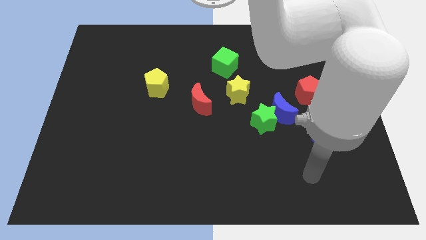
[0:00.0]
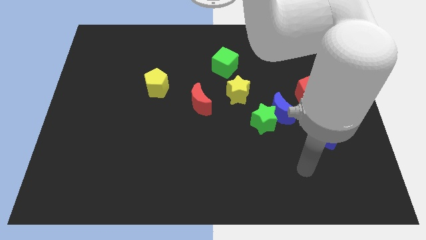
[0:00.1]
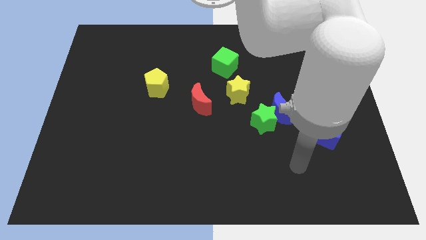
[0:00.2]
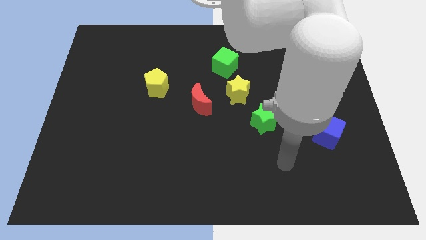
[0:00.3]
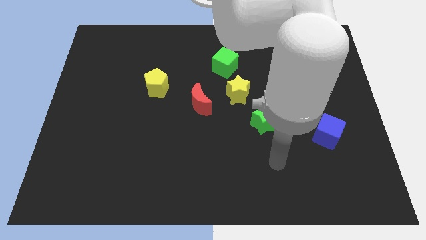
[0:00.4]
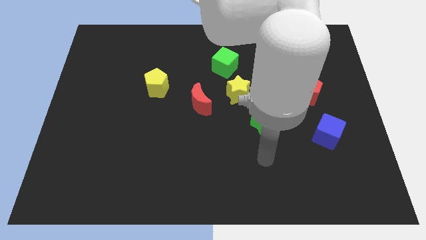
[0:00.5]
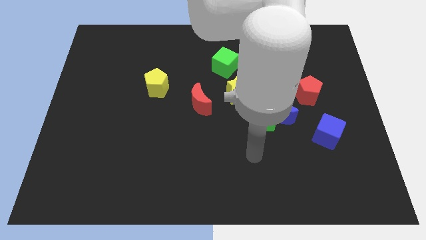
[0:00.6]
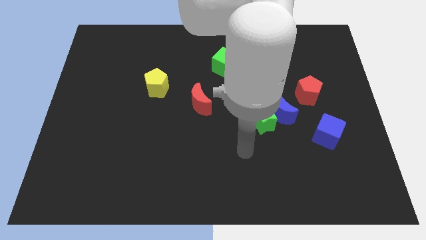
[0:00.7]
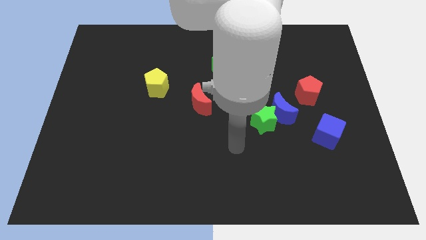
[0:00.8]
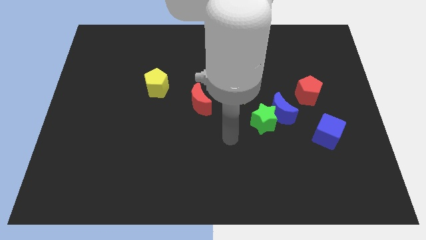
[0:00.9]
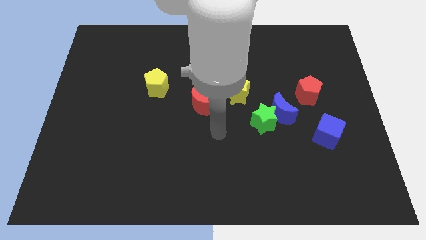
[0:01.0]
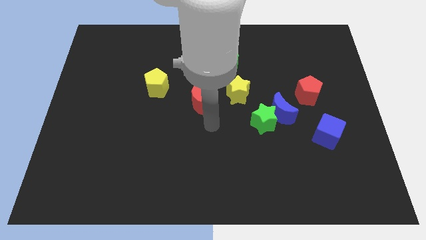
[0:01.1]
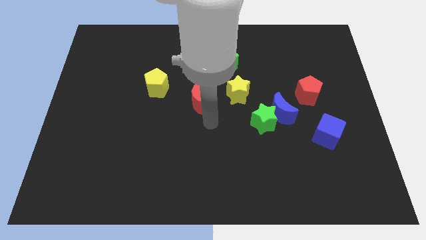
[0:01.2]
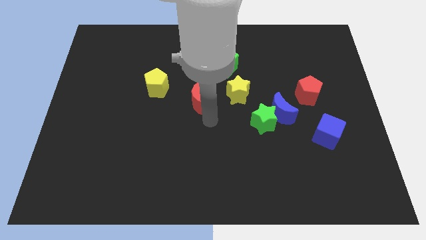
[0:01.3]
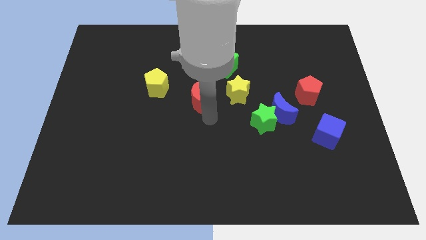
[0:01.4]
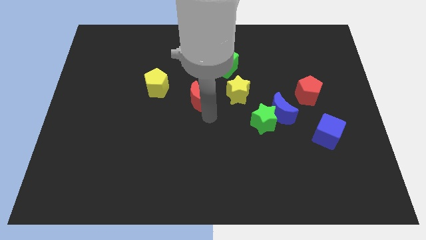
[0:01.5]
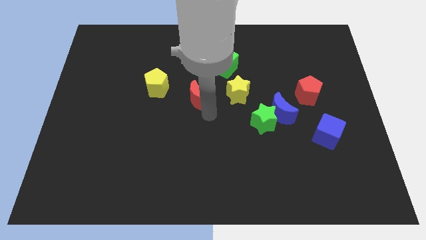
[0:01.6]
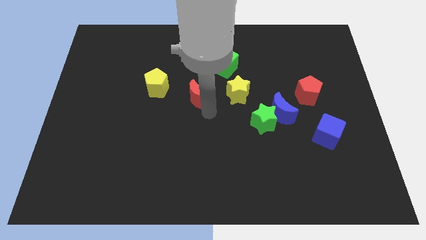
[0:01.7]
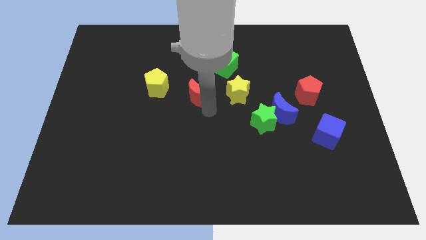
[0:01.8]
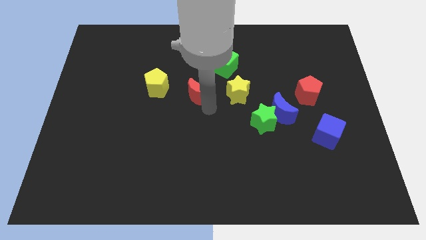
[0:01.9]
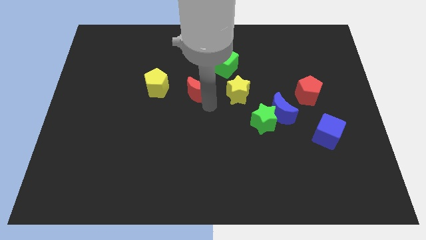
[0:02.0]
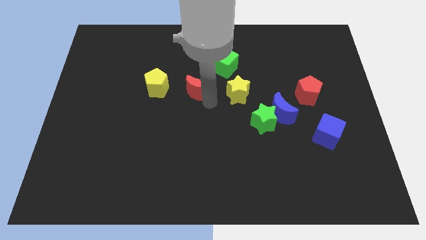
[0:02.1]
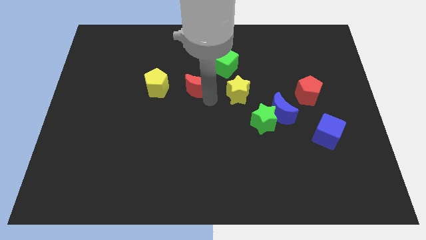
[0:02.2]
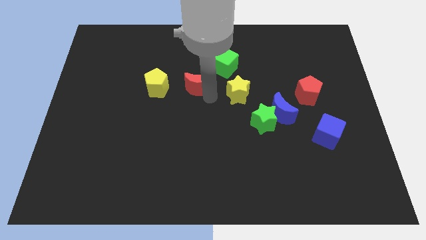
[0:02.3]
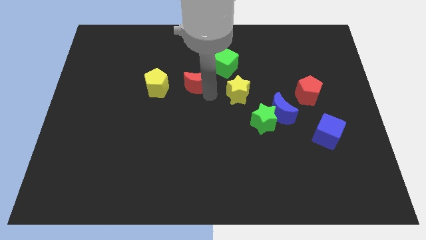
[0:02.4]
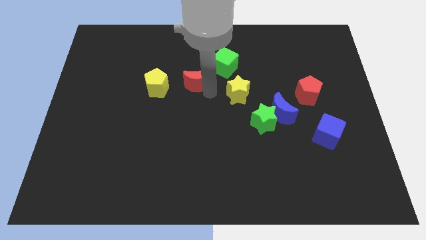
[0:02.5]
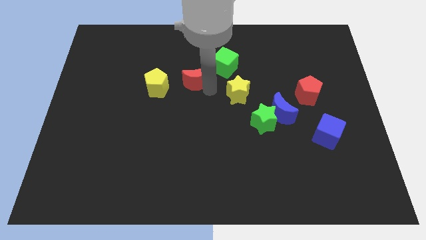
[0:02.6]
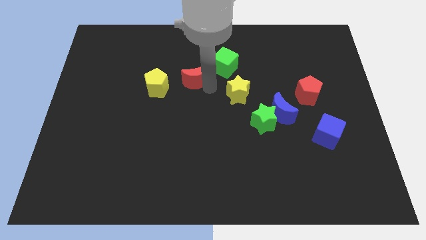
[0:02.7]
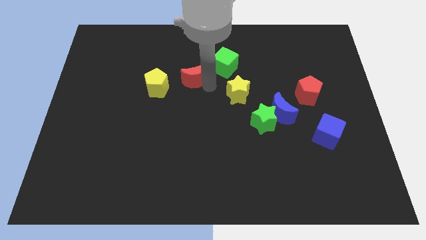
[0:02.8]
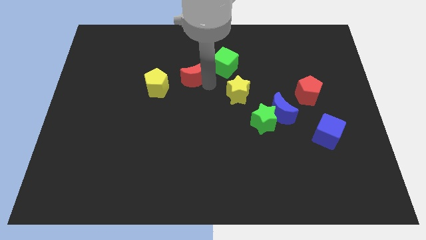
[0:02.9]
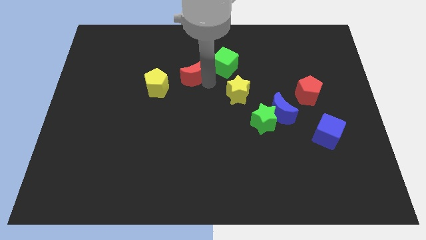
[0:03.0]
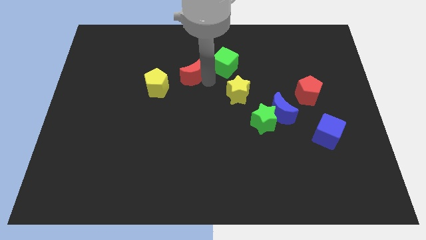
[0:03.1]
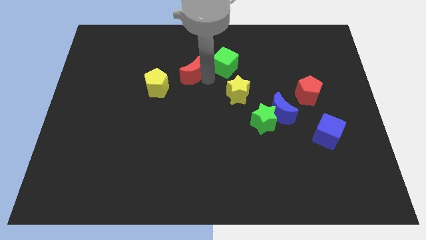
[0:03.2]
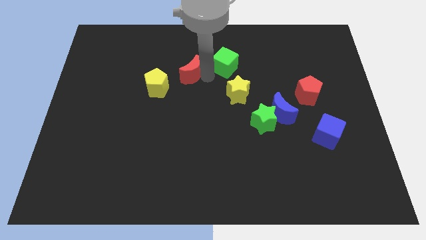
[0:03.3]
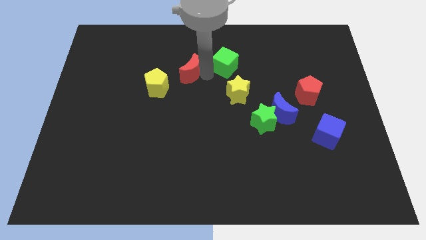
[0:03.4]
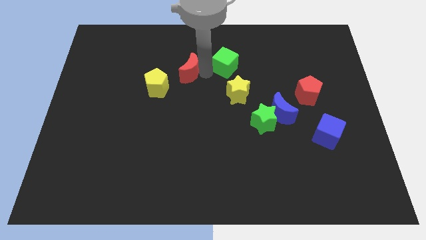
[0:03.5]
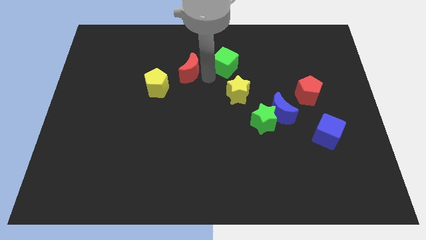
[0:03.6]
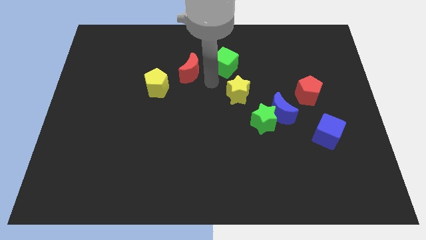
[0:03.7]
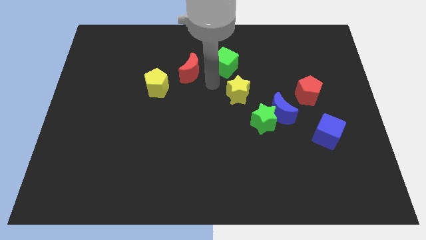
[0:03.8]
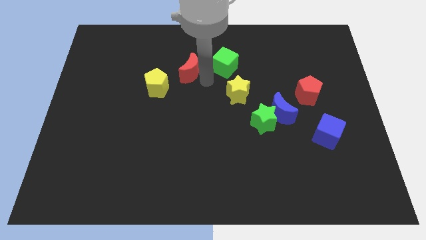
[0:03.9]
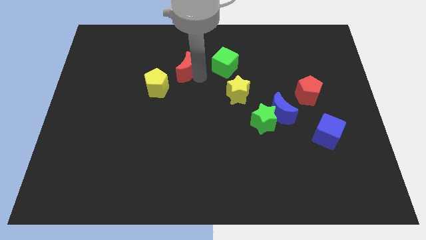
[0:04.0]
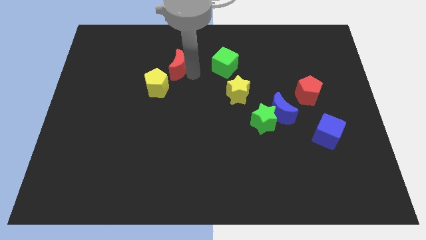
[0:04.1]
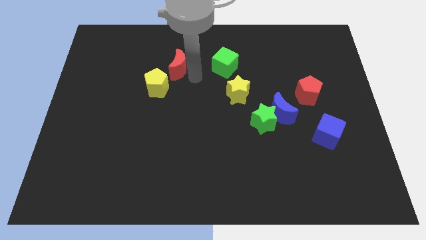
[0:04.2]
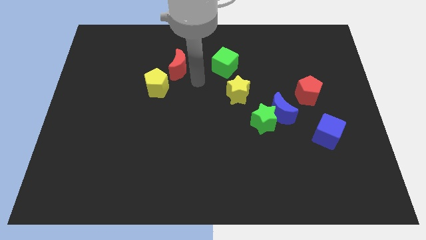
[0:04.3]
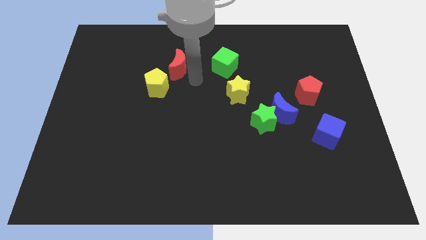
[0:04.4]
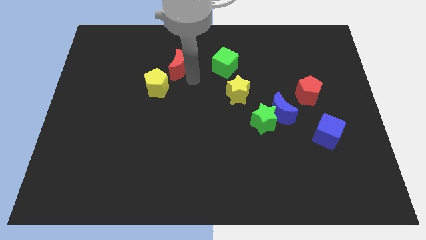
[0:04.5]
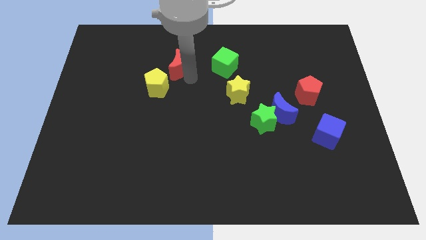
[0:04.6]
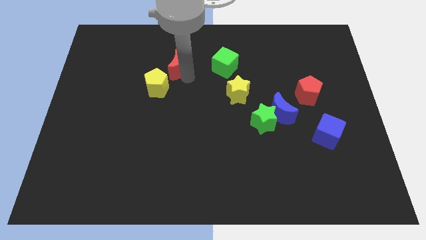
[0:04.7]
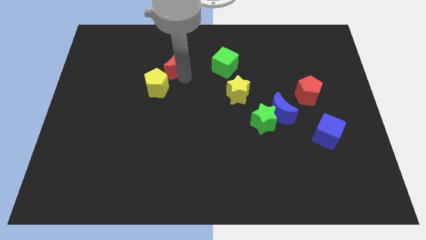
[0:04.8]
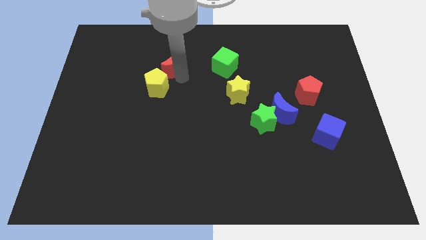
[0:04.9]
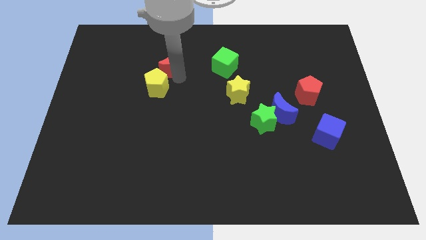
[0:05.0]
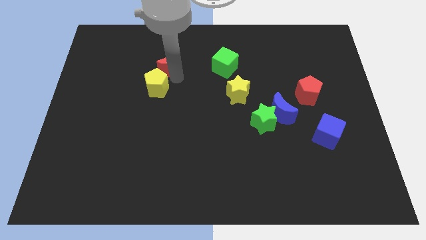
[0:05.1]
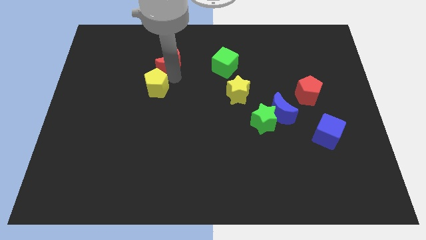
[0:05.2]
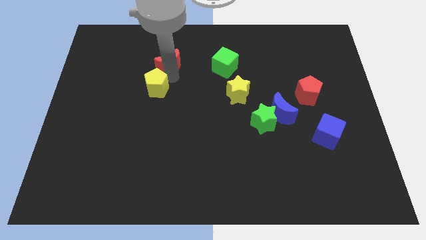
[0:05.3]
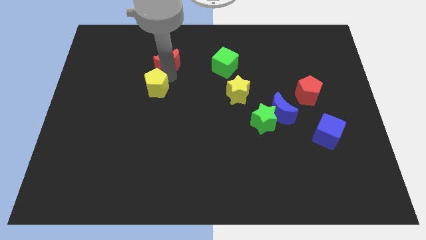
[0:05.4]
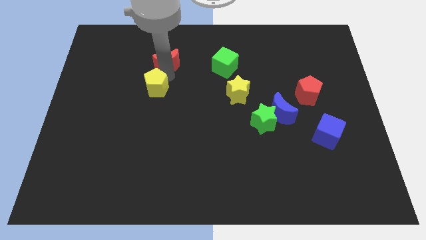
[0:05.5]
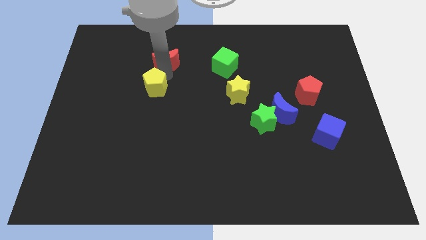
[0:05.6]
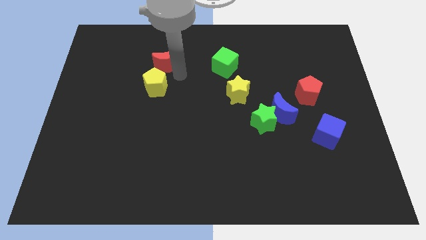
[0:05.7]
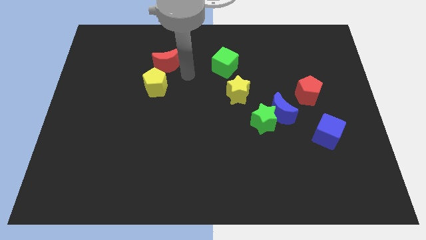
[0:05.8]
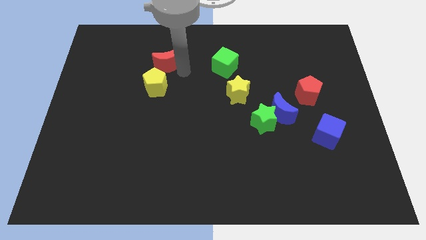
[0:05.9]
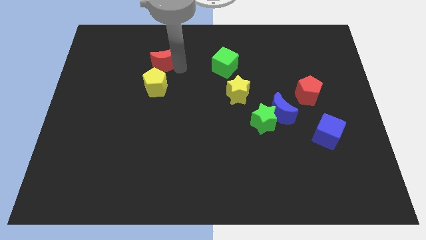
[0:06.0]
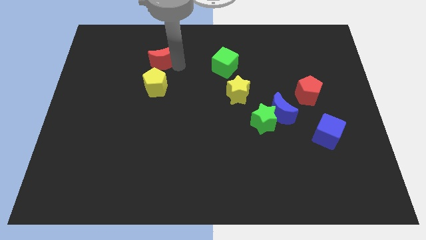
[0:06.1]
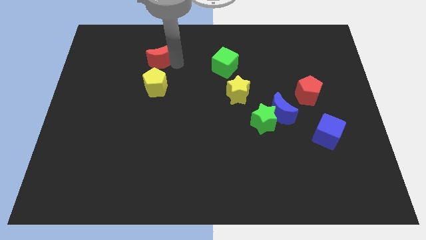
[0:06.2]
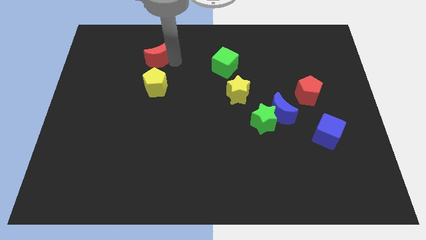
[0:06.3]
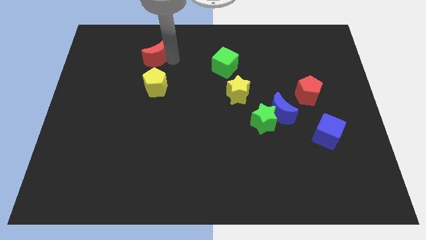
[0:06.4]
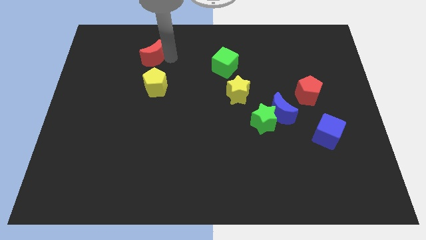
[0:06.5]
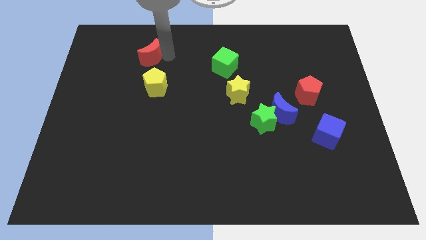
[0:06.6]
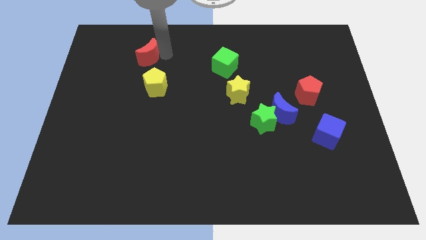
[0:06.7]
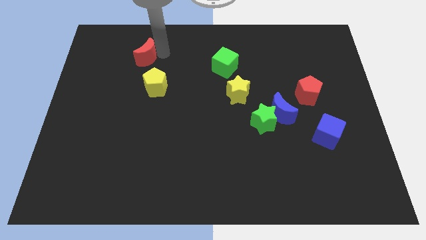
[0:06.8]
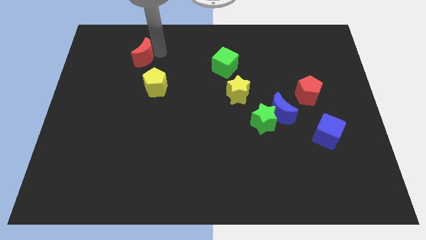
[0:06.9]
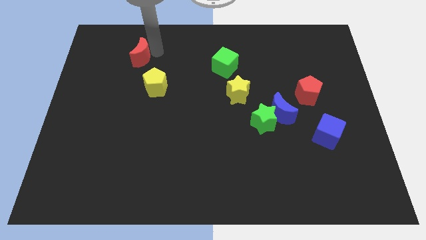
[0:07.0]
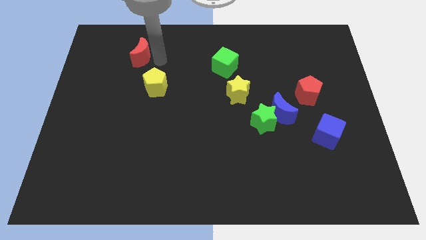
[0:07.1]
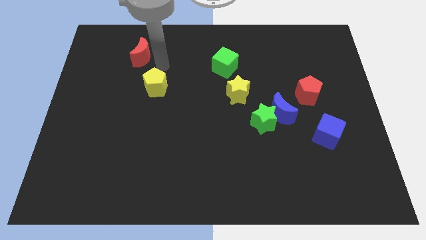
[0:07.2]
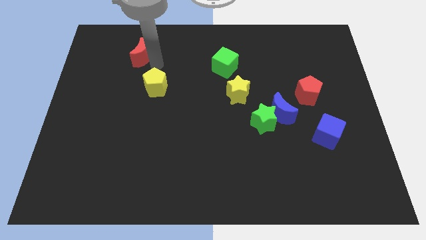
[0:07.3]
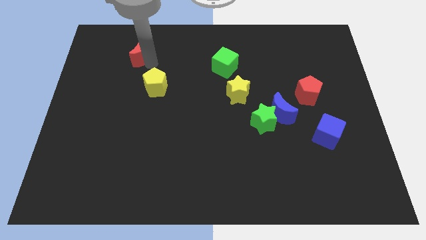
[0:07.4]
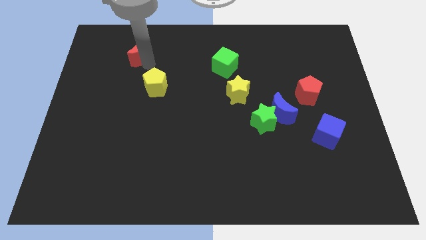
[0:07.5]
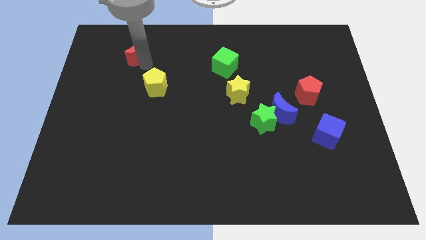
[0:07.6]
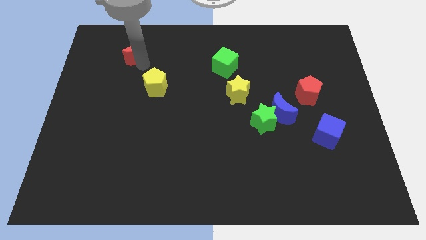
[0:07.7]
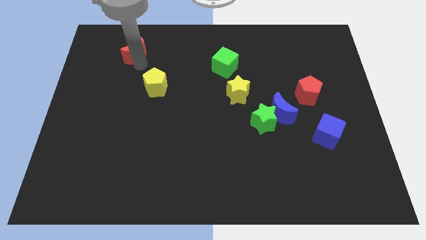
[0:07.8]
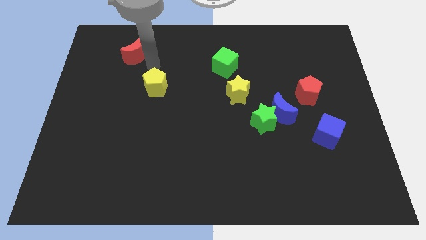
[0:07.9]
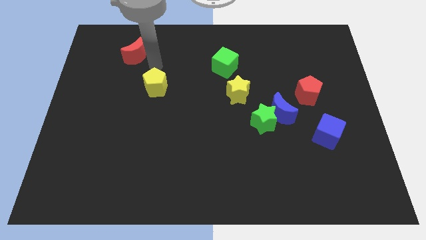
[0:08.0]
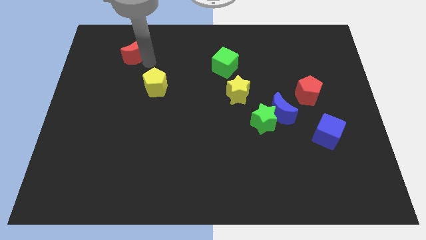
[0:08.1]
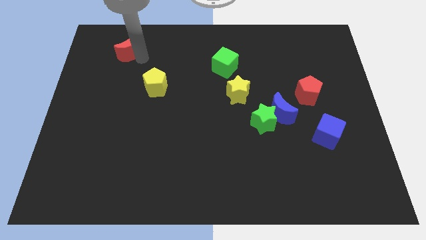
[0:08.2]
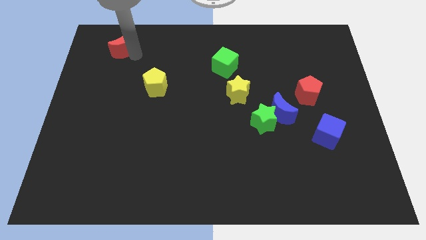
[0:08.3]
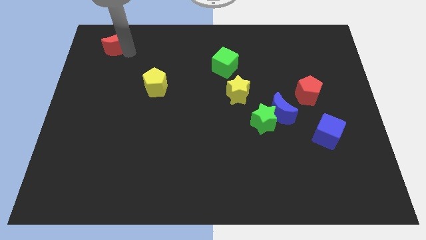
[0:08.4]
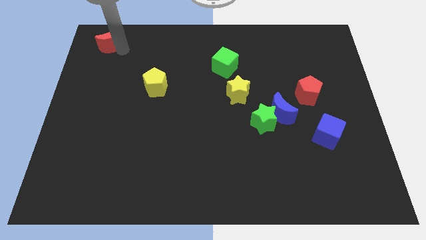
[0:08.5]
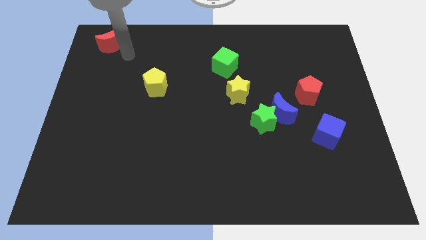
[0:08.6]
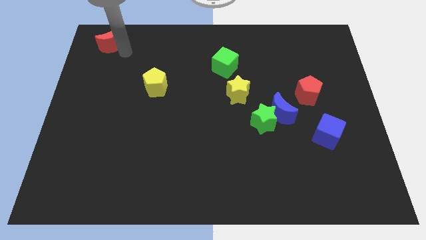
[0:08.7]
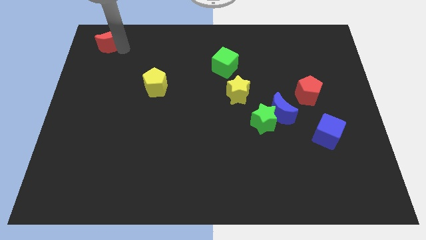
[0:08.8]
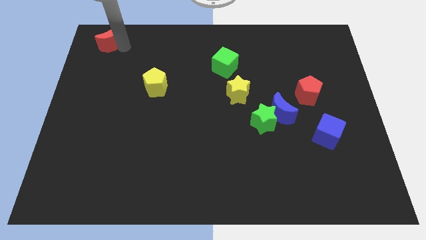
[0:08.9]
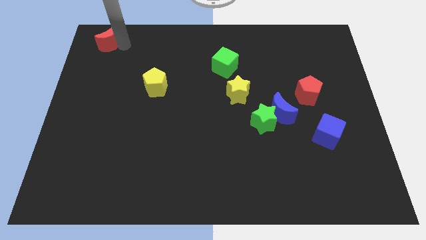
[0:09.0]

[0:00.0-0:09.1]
put the red moon to the top left of the board
